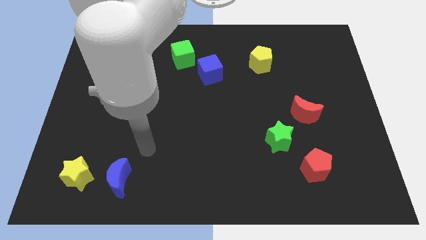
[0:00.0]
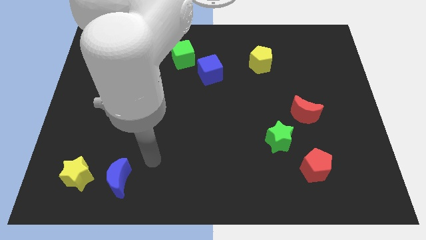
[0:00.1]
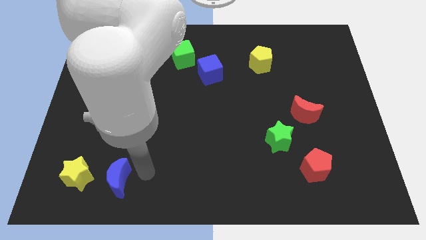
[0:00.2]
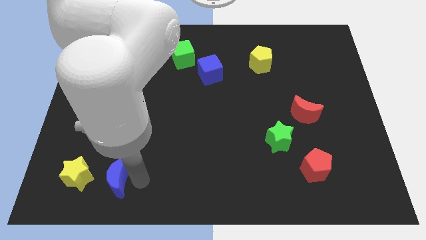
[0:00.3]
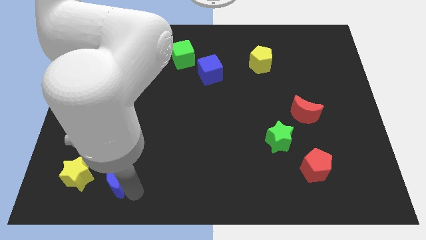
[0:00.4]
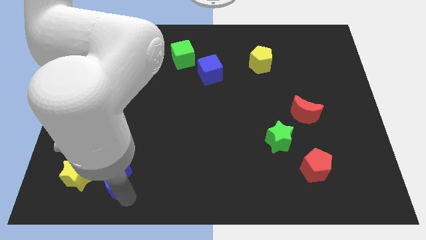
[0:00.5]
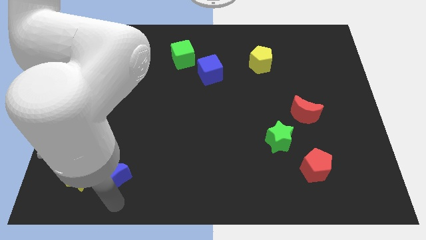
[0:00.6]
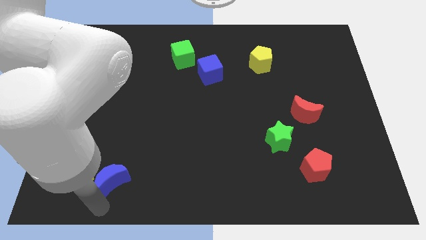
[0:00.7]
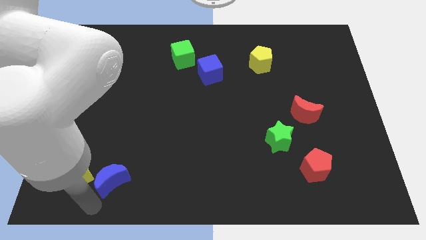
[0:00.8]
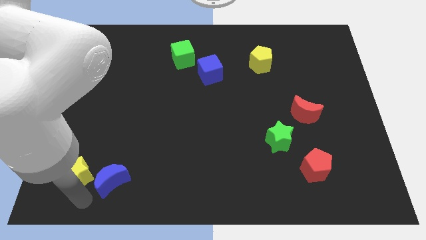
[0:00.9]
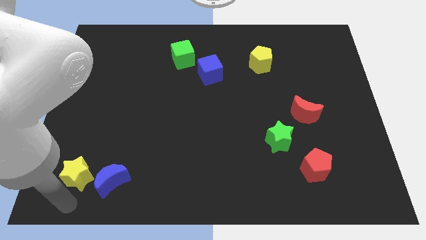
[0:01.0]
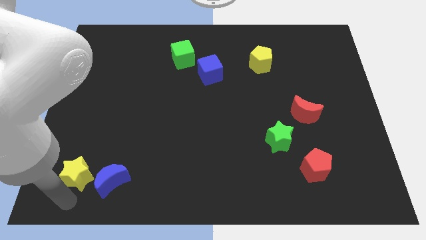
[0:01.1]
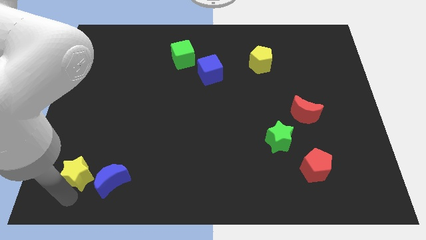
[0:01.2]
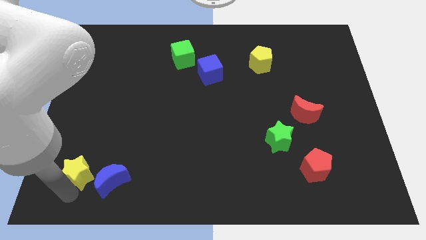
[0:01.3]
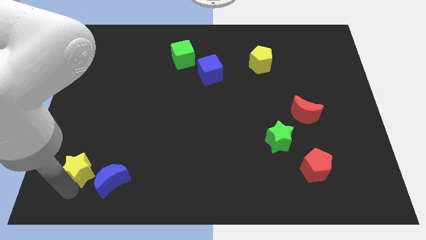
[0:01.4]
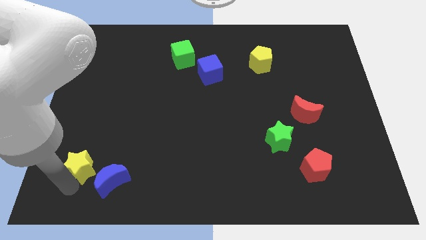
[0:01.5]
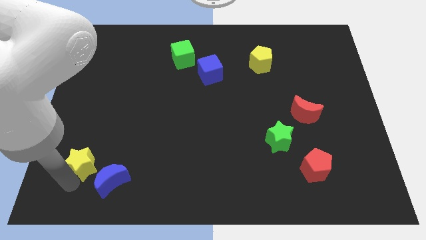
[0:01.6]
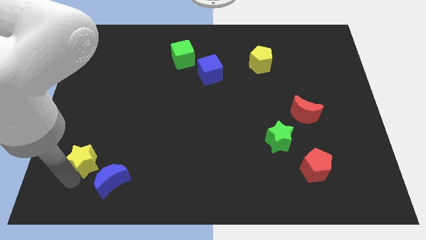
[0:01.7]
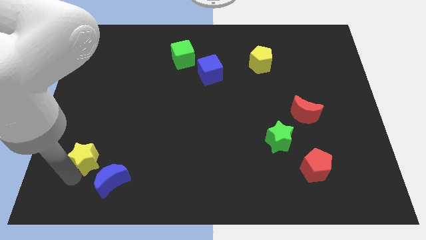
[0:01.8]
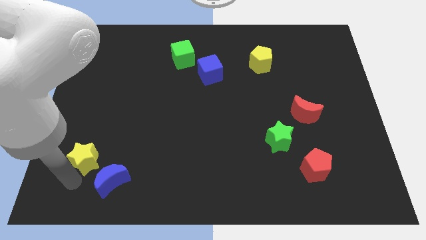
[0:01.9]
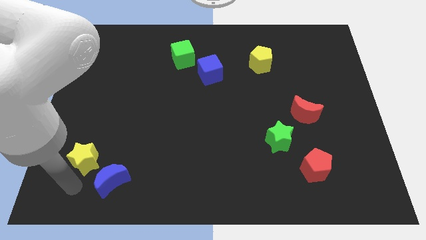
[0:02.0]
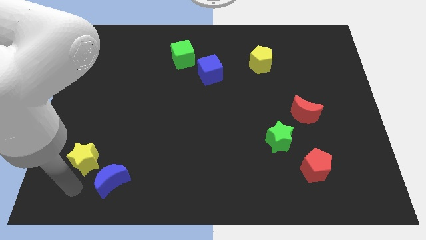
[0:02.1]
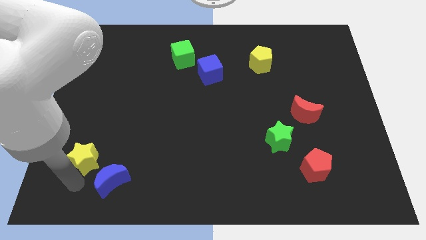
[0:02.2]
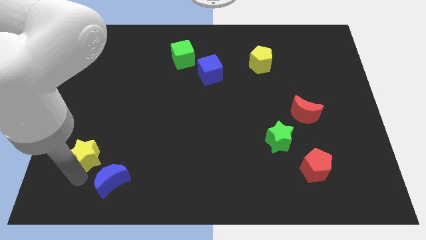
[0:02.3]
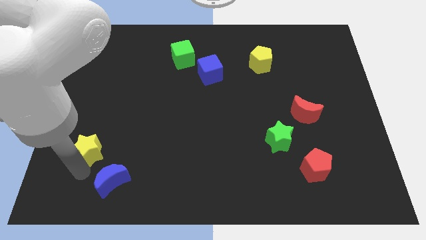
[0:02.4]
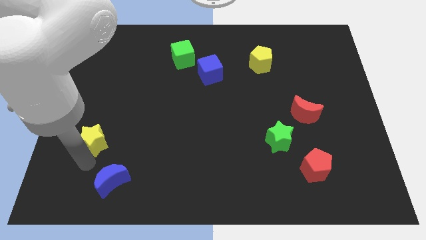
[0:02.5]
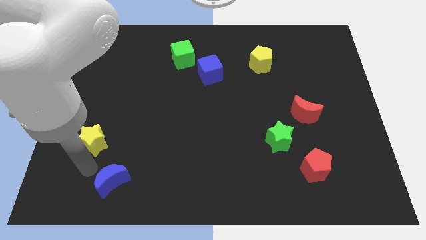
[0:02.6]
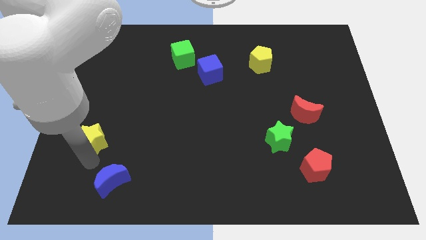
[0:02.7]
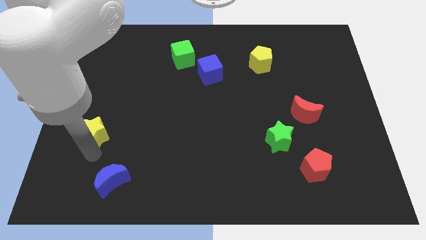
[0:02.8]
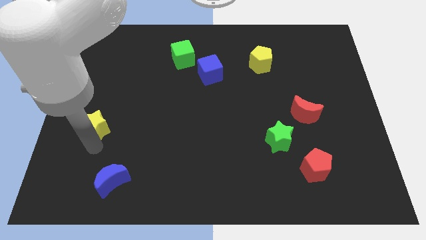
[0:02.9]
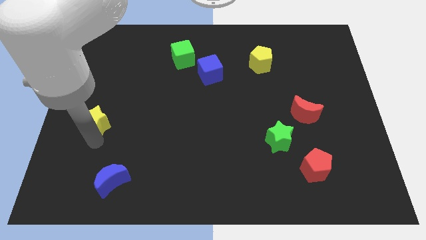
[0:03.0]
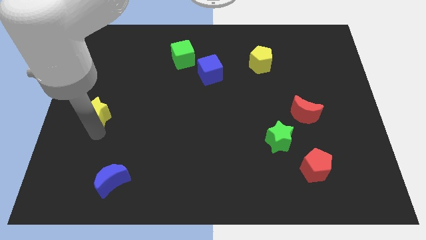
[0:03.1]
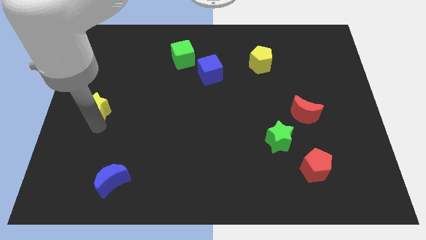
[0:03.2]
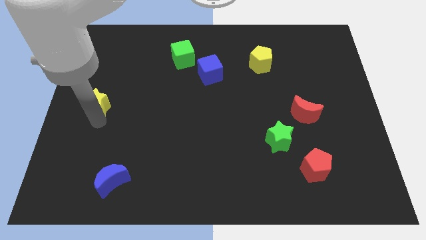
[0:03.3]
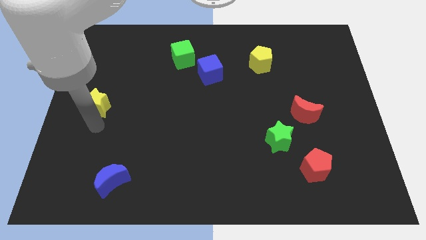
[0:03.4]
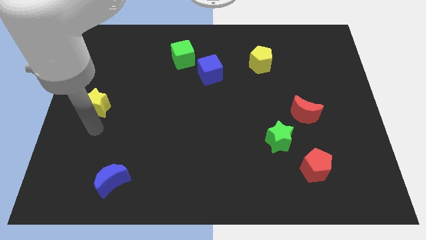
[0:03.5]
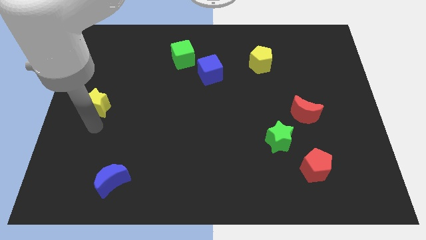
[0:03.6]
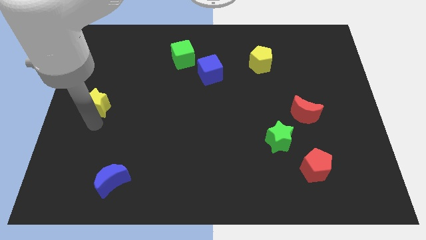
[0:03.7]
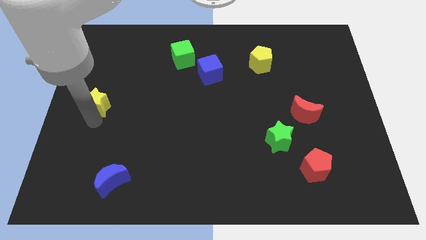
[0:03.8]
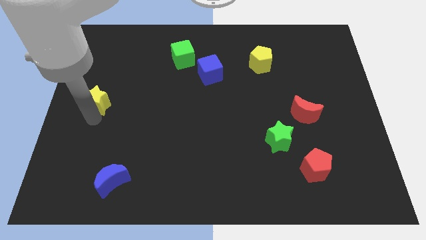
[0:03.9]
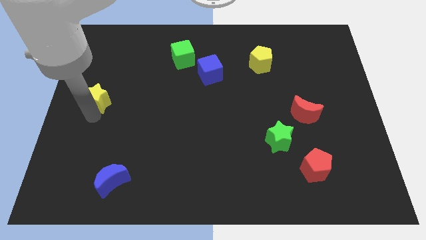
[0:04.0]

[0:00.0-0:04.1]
push the yellow star upwards

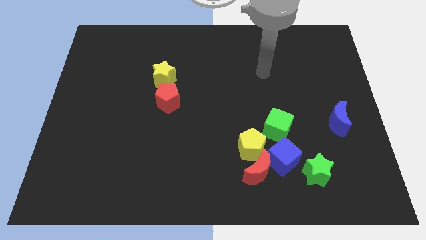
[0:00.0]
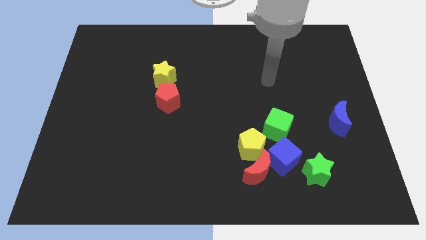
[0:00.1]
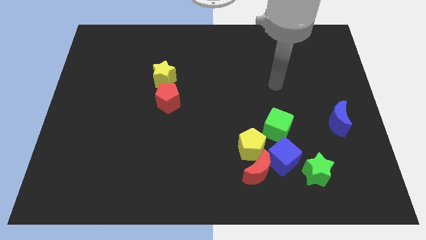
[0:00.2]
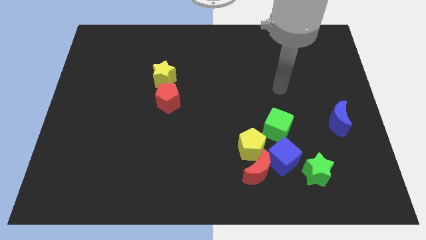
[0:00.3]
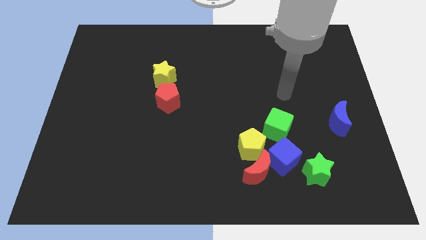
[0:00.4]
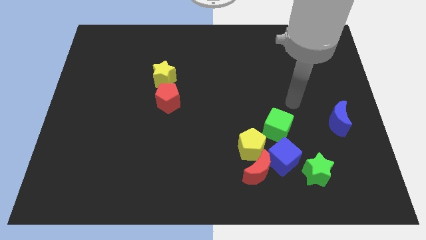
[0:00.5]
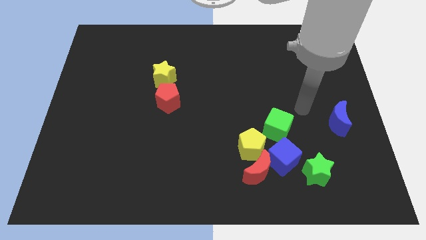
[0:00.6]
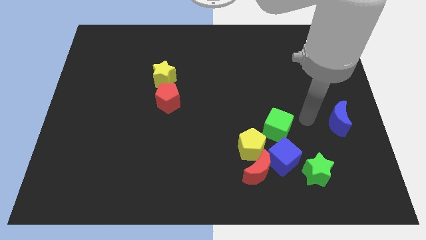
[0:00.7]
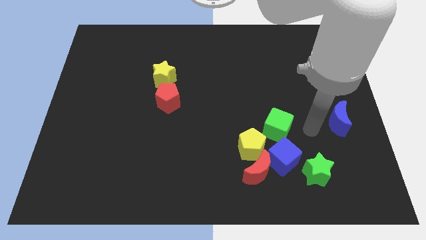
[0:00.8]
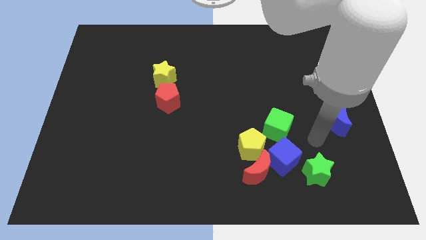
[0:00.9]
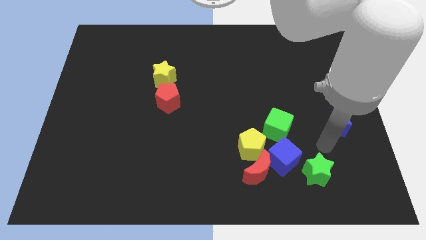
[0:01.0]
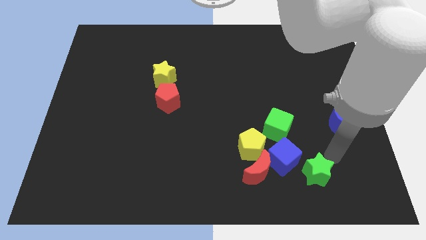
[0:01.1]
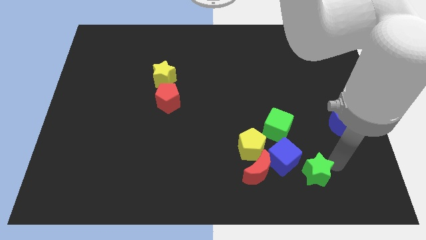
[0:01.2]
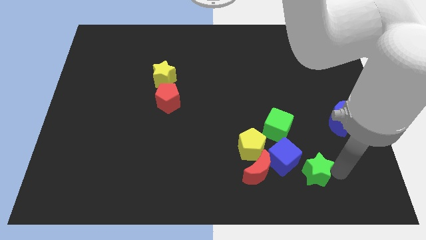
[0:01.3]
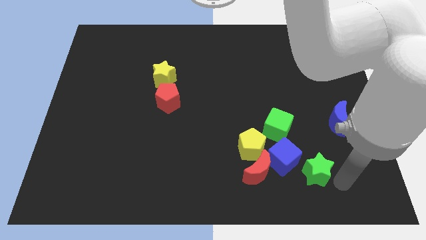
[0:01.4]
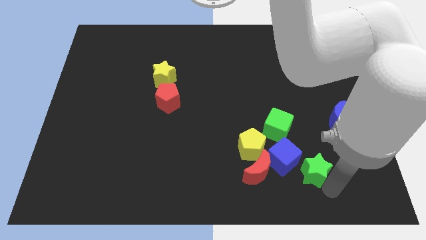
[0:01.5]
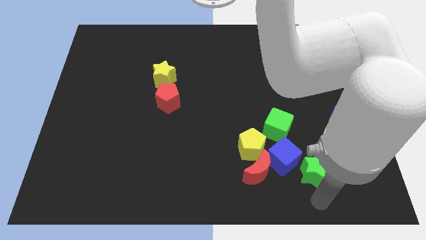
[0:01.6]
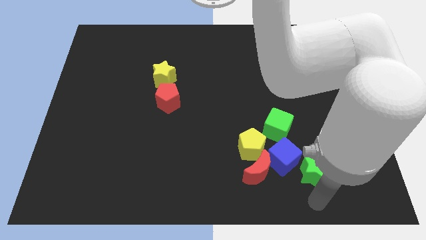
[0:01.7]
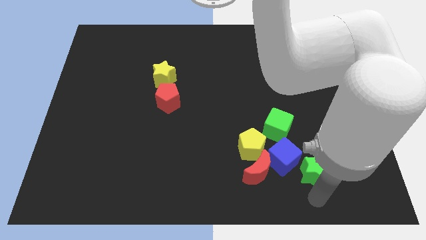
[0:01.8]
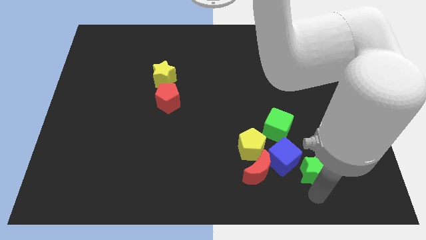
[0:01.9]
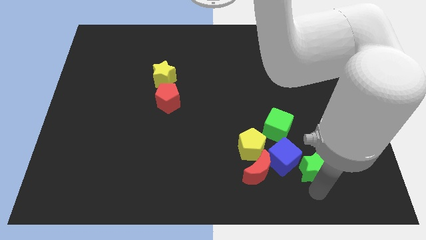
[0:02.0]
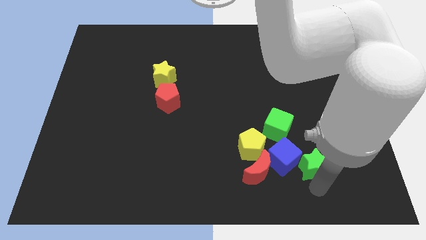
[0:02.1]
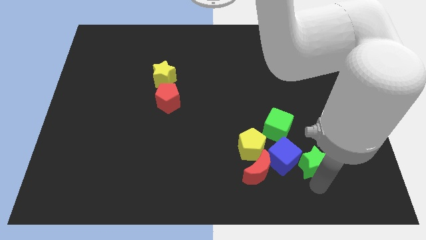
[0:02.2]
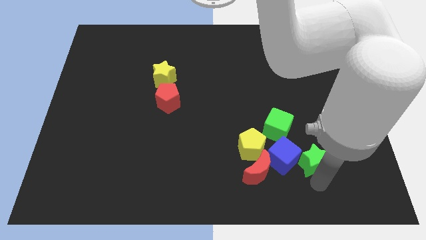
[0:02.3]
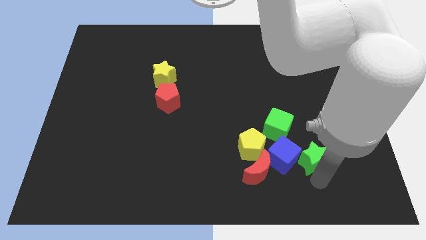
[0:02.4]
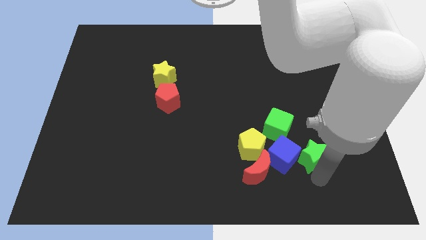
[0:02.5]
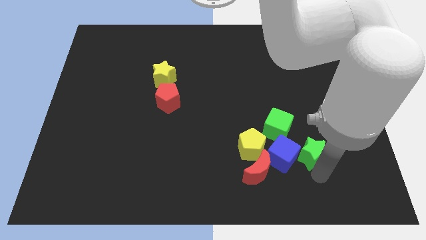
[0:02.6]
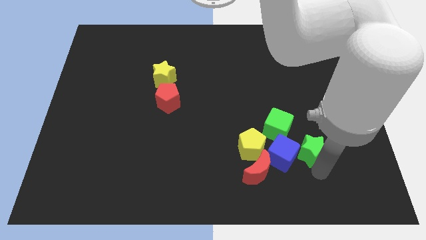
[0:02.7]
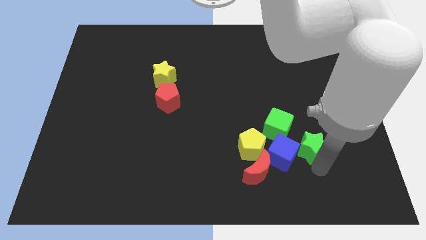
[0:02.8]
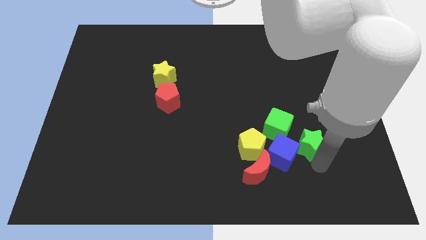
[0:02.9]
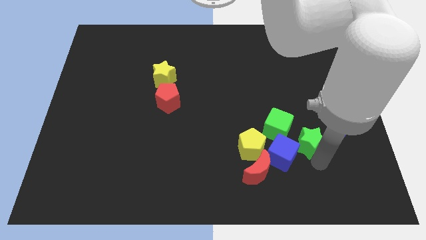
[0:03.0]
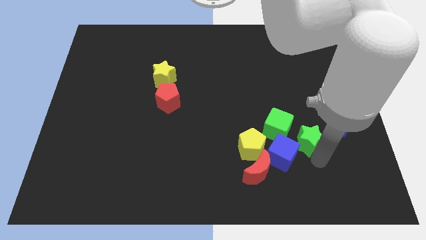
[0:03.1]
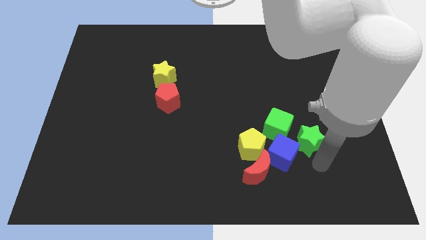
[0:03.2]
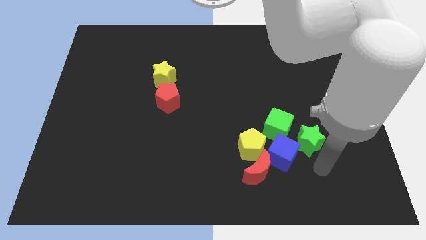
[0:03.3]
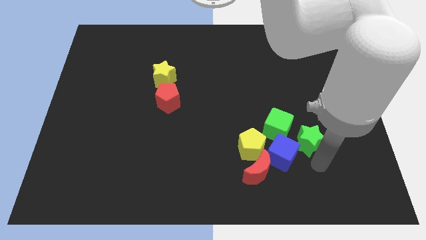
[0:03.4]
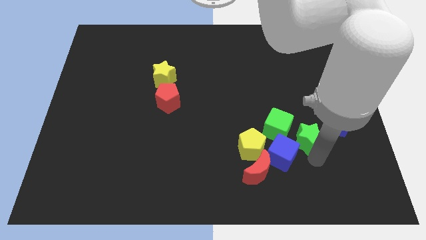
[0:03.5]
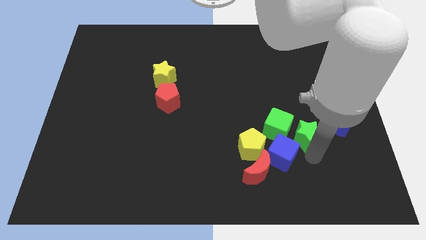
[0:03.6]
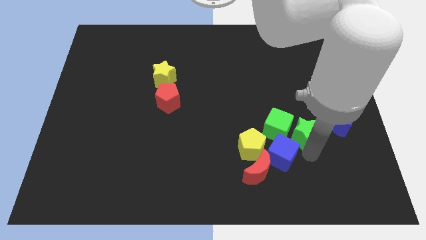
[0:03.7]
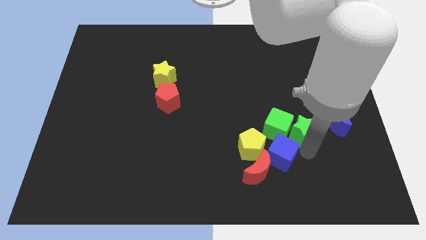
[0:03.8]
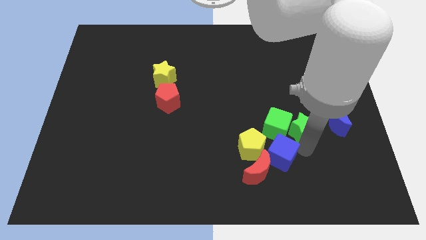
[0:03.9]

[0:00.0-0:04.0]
move the green star a little bit up and to the left diagonally
